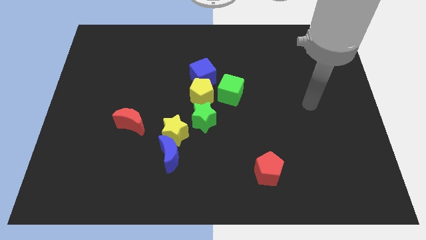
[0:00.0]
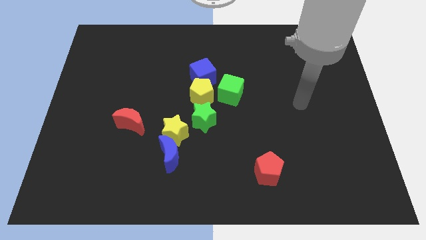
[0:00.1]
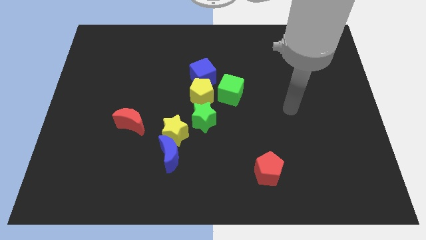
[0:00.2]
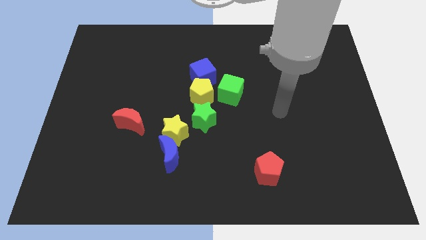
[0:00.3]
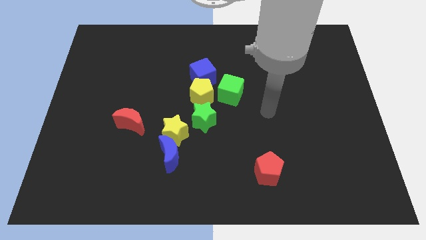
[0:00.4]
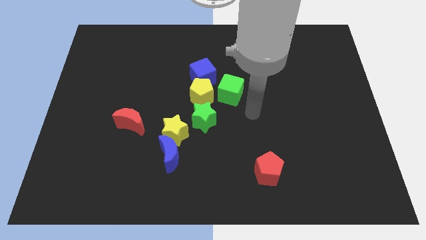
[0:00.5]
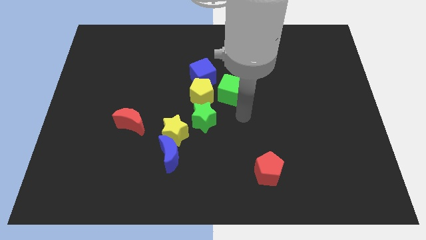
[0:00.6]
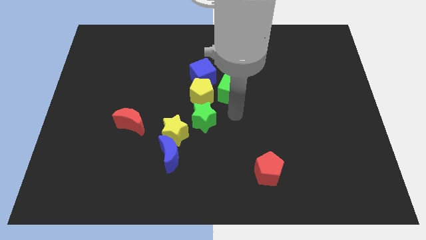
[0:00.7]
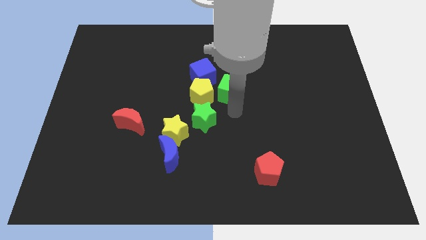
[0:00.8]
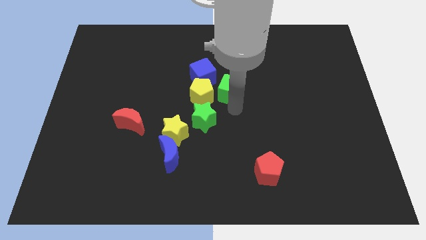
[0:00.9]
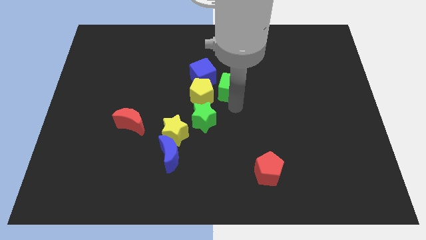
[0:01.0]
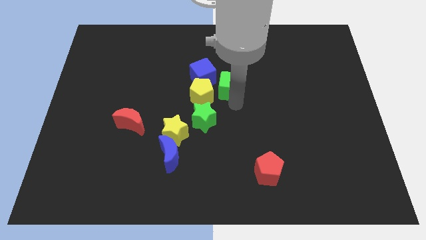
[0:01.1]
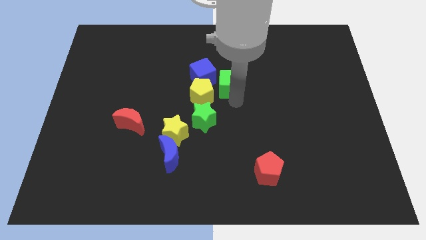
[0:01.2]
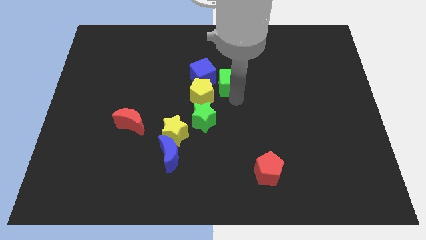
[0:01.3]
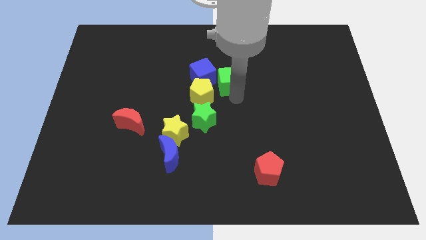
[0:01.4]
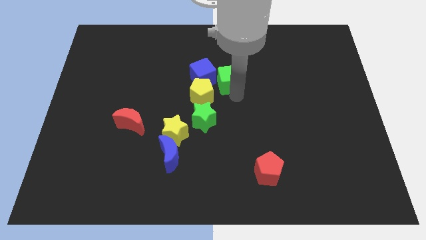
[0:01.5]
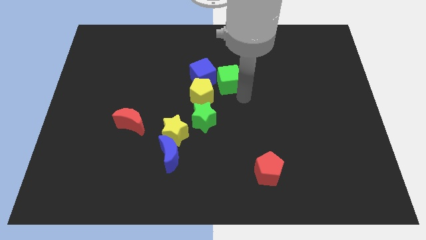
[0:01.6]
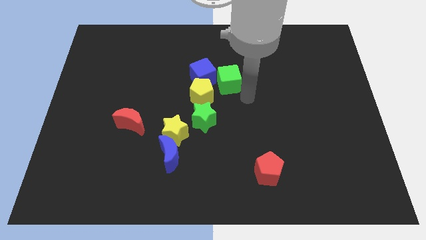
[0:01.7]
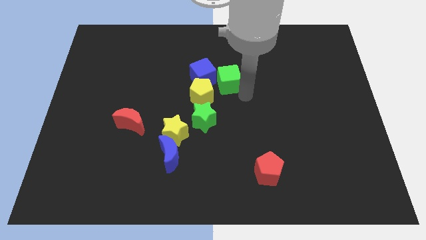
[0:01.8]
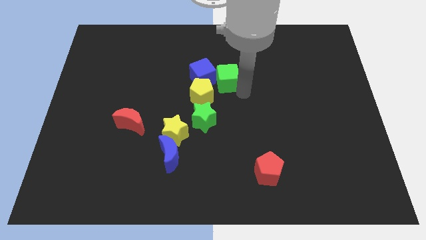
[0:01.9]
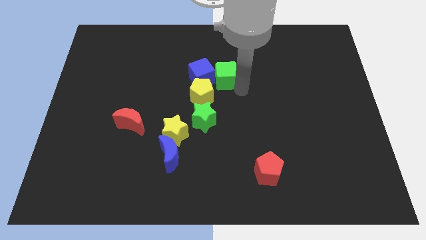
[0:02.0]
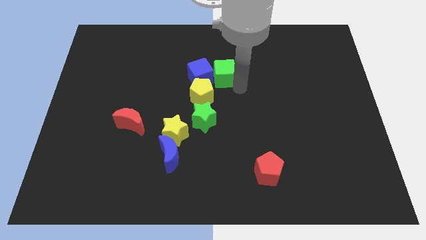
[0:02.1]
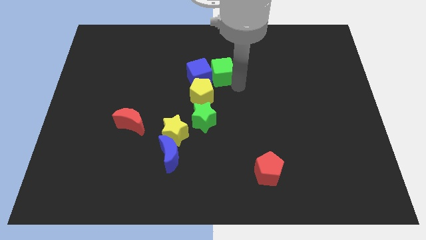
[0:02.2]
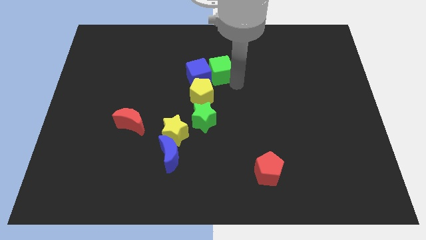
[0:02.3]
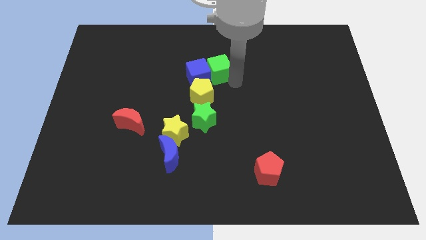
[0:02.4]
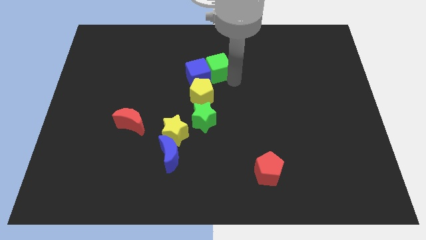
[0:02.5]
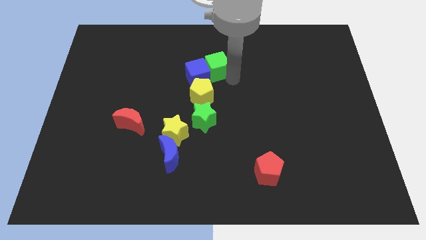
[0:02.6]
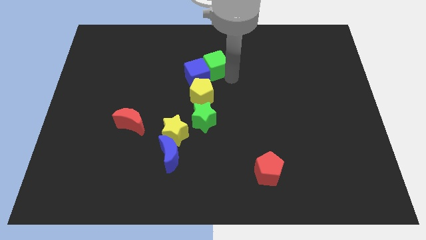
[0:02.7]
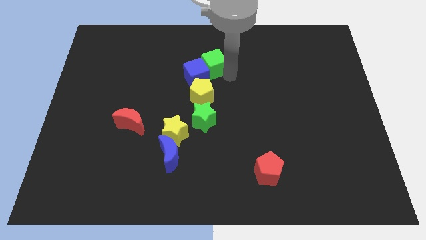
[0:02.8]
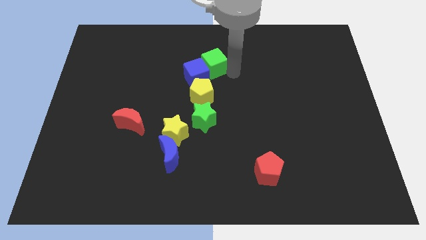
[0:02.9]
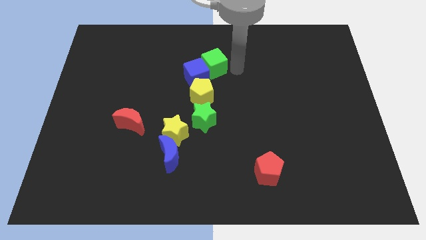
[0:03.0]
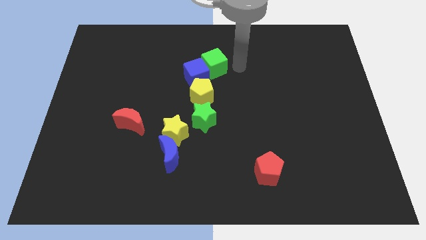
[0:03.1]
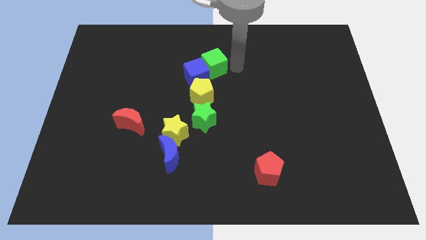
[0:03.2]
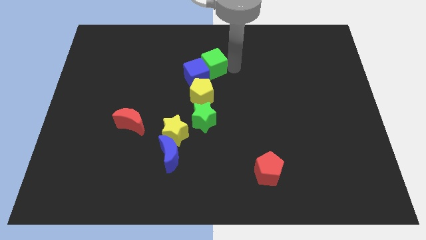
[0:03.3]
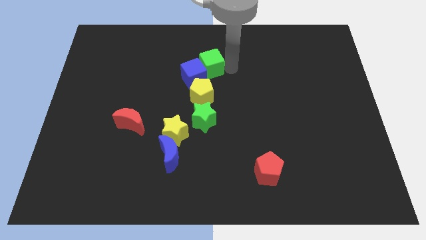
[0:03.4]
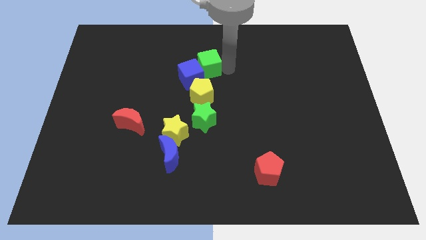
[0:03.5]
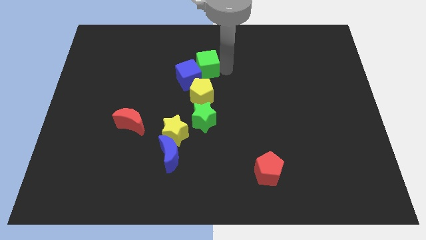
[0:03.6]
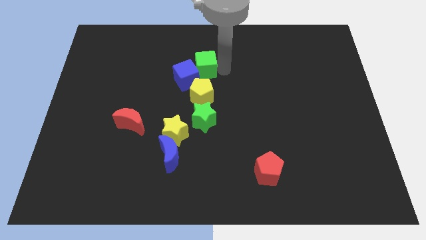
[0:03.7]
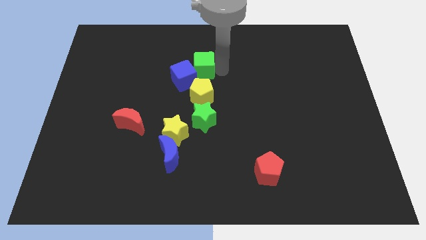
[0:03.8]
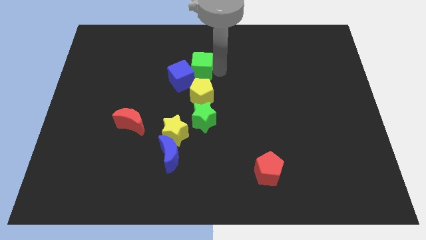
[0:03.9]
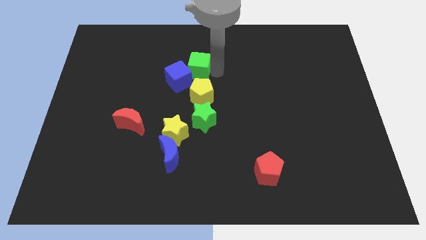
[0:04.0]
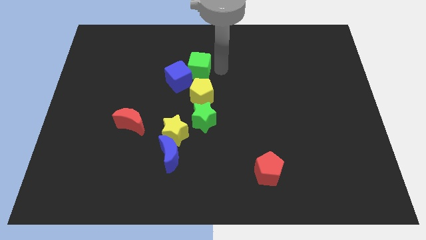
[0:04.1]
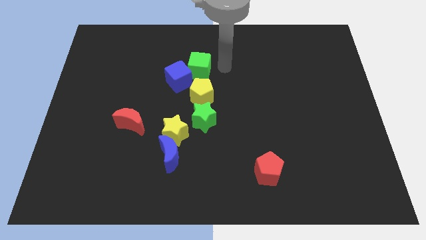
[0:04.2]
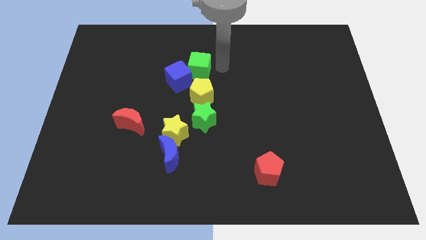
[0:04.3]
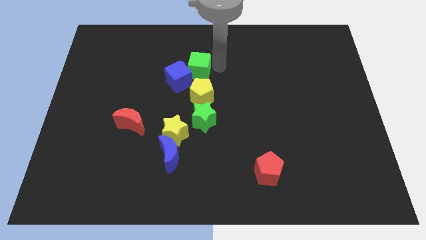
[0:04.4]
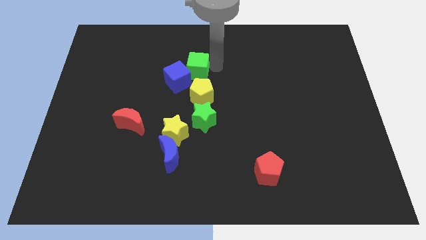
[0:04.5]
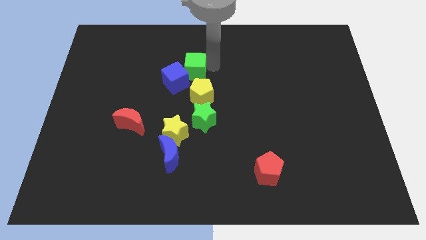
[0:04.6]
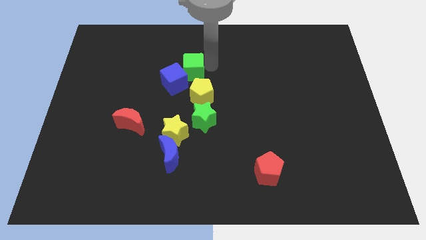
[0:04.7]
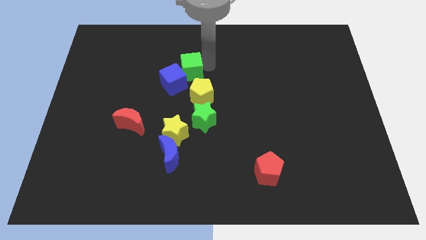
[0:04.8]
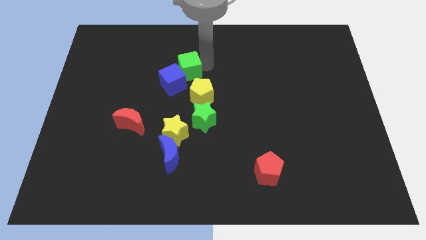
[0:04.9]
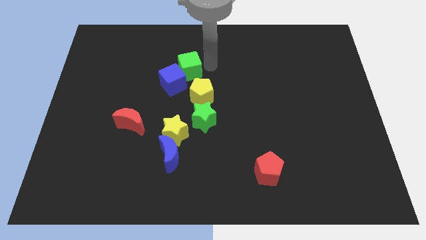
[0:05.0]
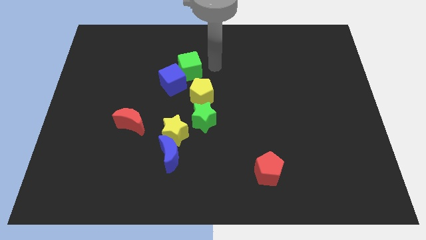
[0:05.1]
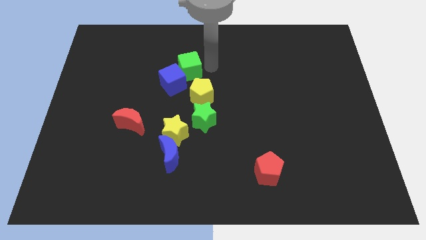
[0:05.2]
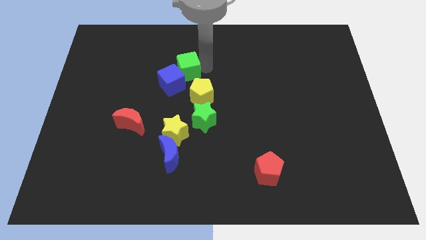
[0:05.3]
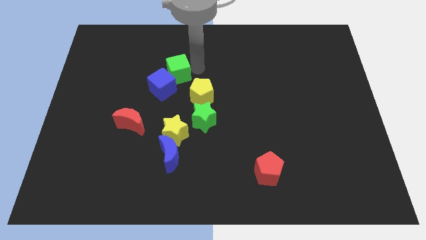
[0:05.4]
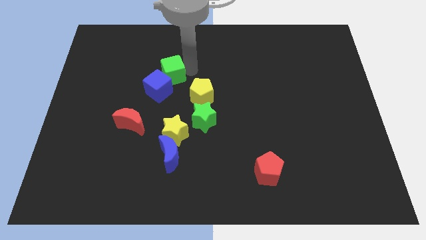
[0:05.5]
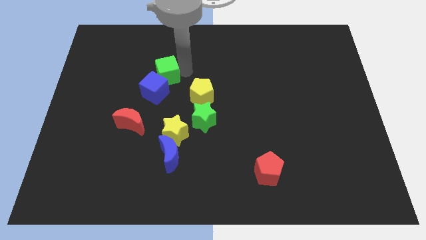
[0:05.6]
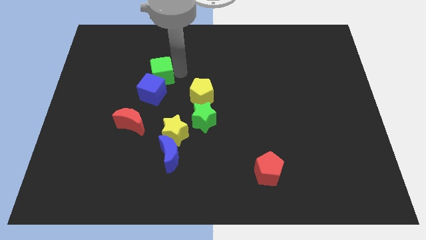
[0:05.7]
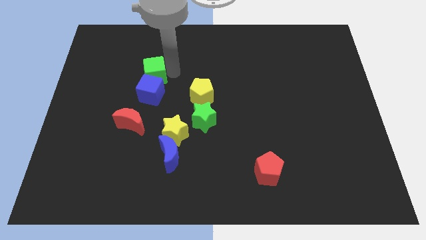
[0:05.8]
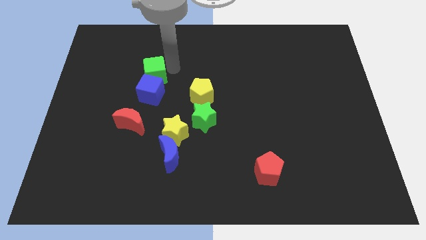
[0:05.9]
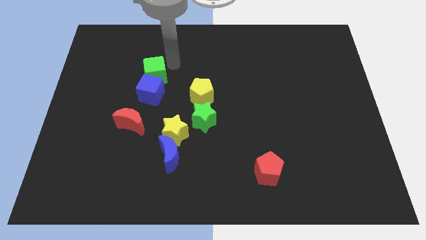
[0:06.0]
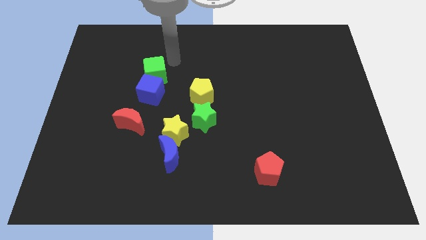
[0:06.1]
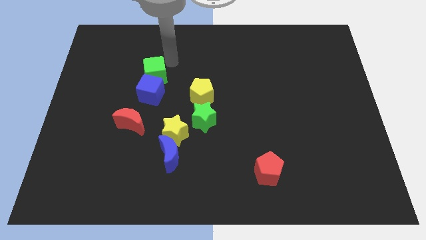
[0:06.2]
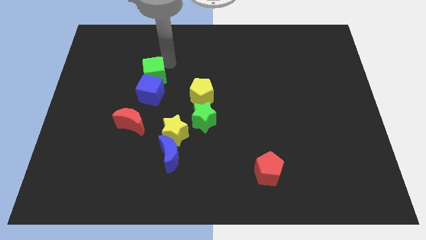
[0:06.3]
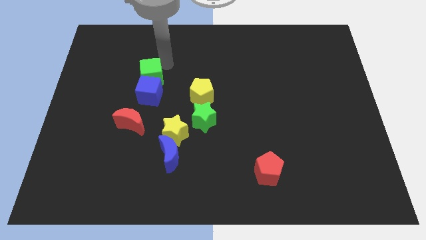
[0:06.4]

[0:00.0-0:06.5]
put the green cube above the red moon

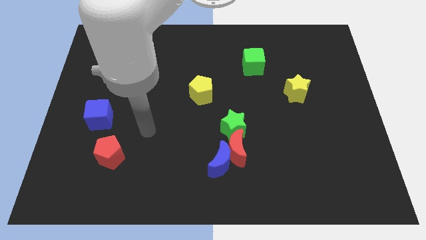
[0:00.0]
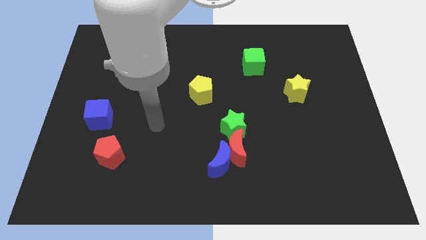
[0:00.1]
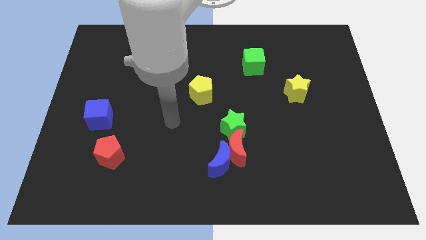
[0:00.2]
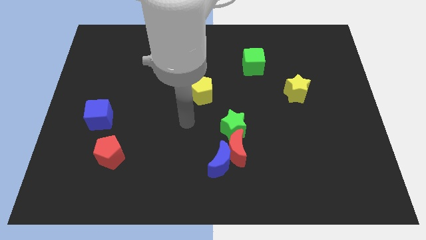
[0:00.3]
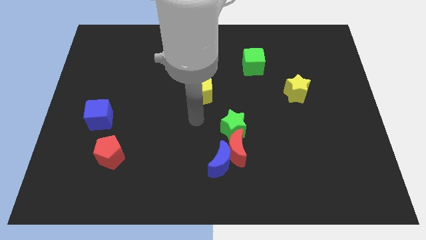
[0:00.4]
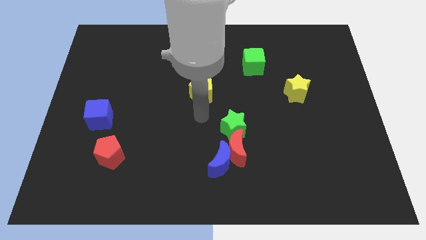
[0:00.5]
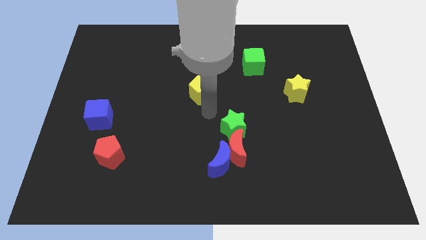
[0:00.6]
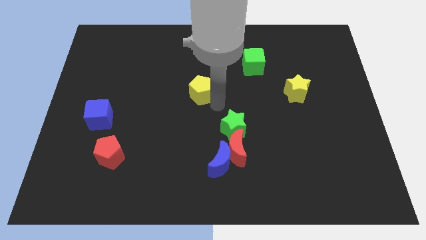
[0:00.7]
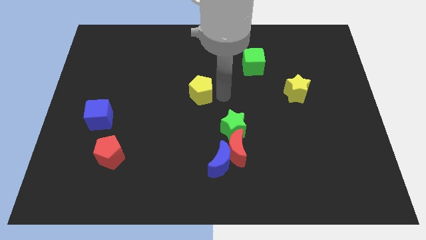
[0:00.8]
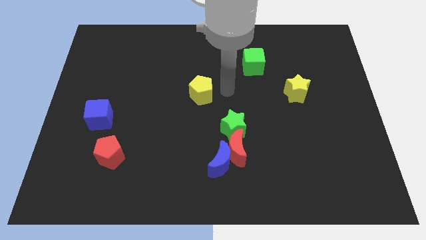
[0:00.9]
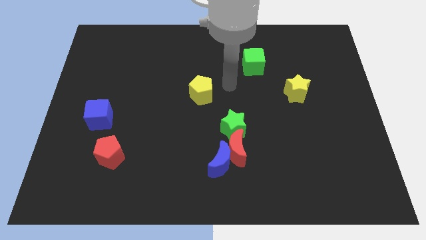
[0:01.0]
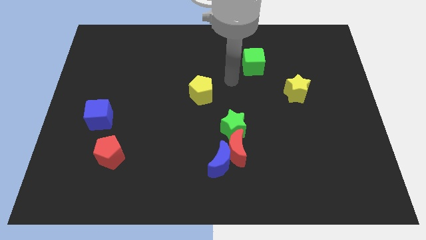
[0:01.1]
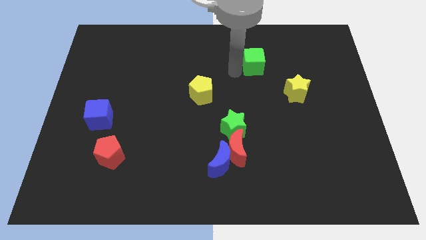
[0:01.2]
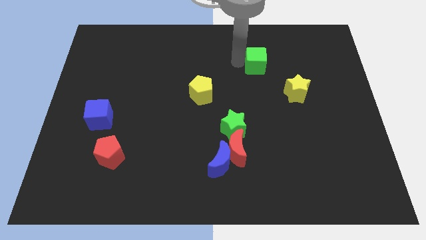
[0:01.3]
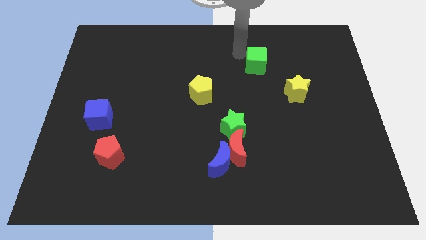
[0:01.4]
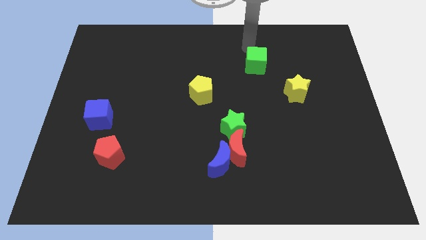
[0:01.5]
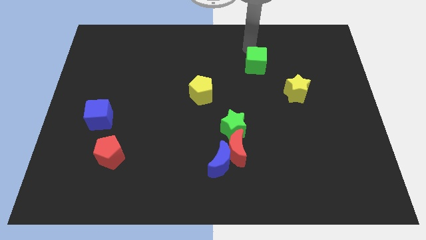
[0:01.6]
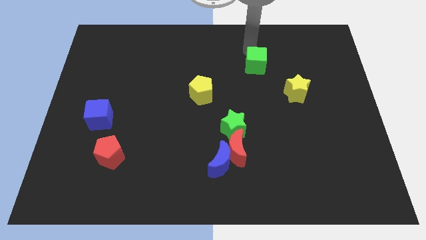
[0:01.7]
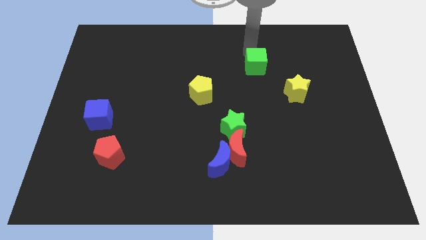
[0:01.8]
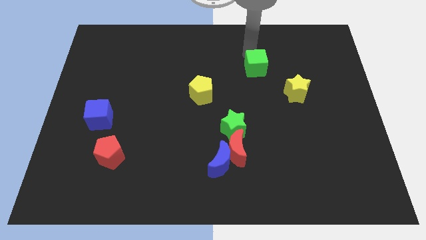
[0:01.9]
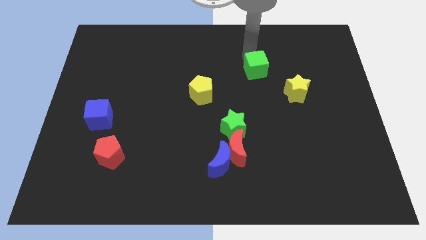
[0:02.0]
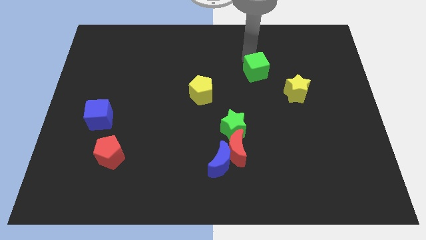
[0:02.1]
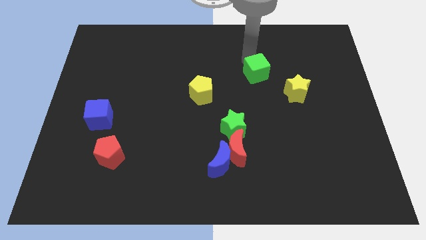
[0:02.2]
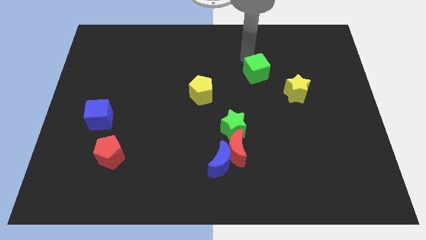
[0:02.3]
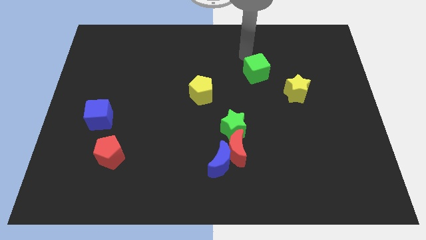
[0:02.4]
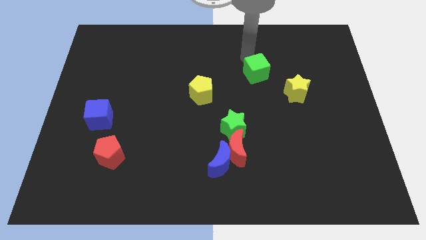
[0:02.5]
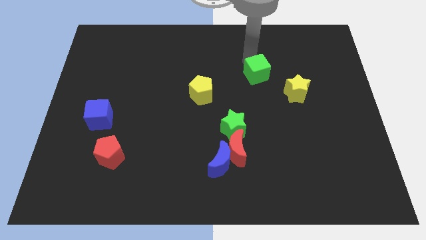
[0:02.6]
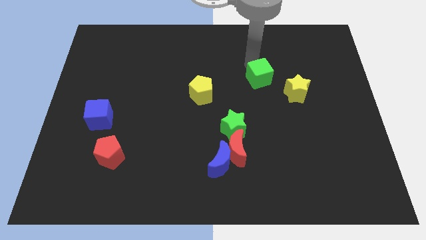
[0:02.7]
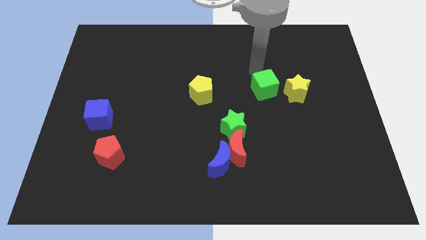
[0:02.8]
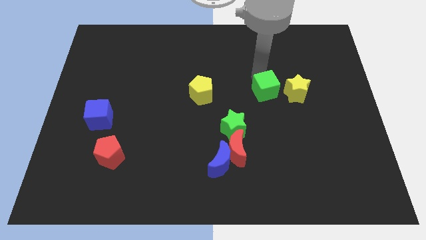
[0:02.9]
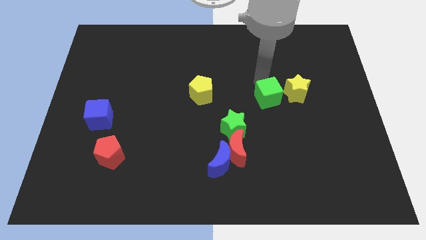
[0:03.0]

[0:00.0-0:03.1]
put the green cube to the bottom left side of the yellow star
